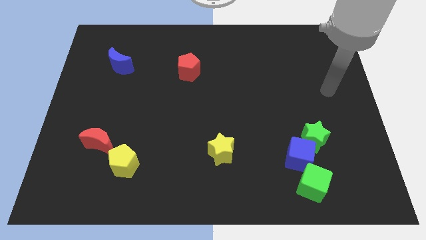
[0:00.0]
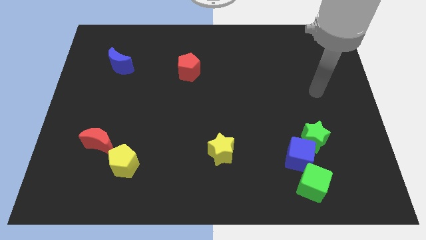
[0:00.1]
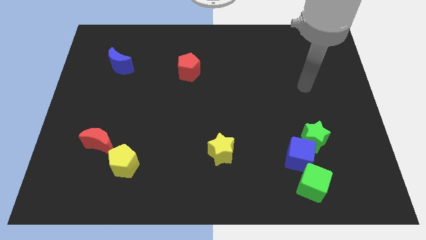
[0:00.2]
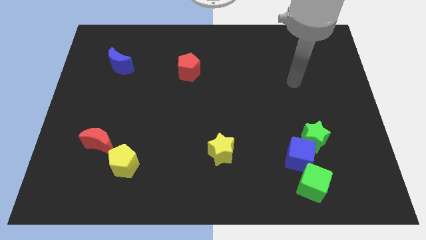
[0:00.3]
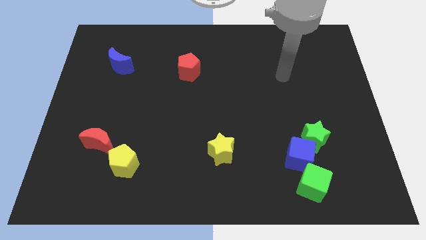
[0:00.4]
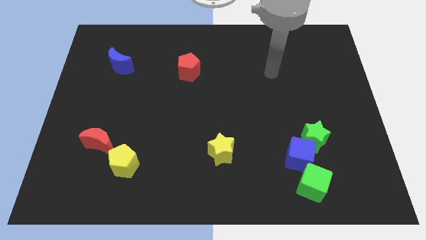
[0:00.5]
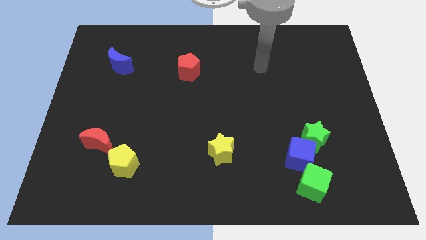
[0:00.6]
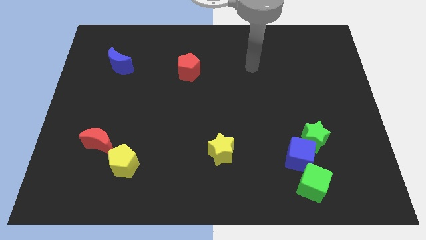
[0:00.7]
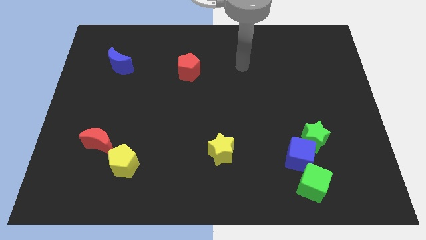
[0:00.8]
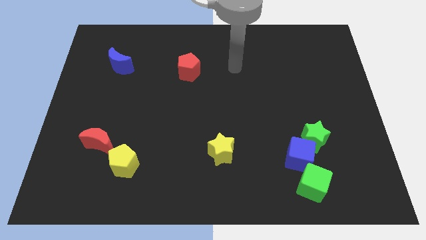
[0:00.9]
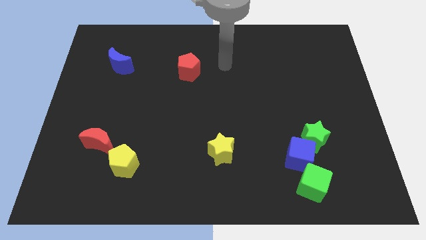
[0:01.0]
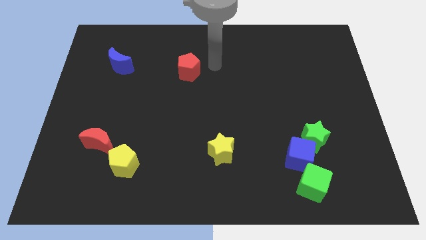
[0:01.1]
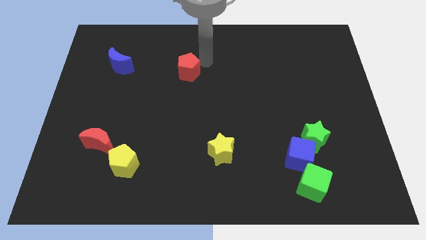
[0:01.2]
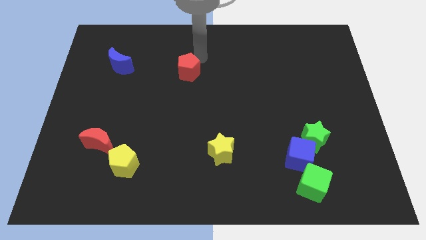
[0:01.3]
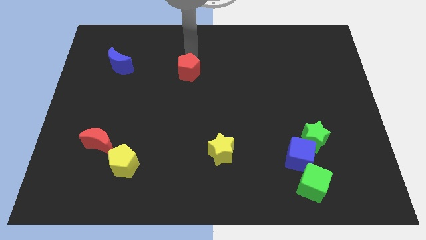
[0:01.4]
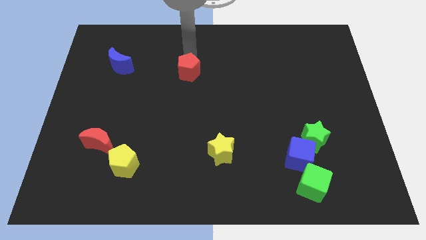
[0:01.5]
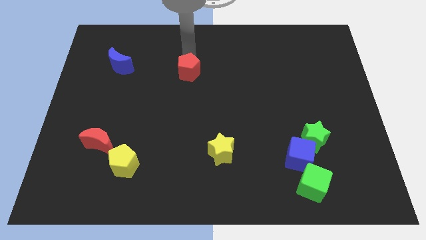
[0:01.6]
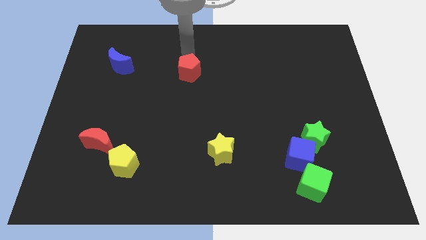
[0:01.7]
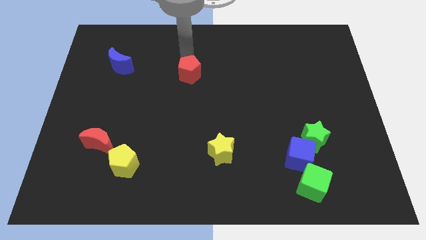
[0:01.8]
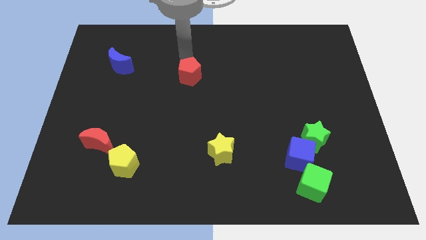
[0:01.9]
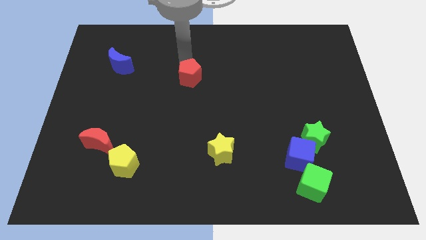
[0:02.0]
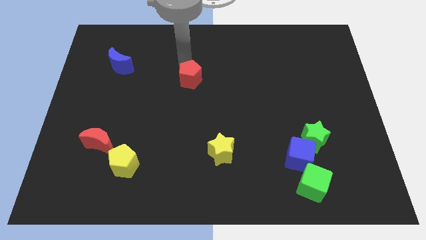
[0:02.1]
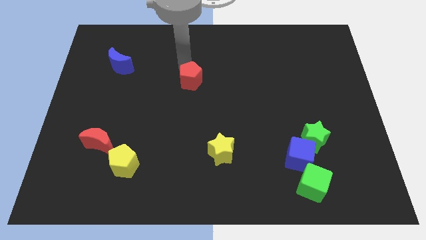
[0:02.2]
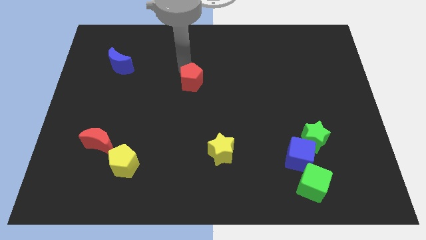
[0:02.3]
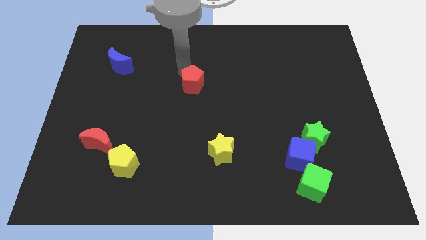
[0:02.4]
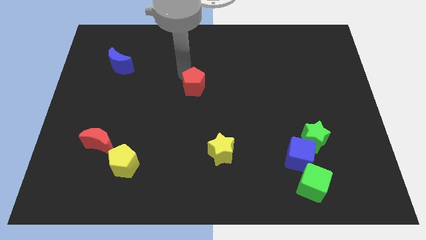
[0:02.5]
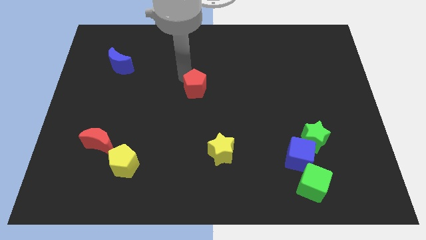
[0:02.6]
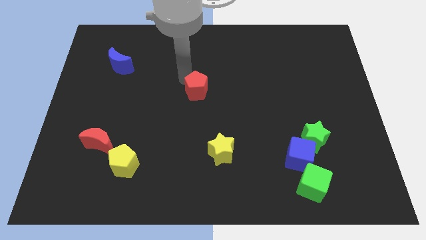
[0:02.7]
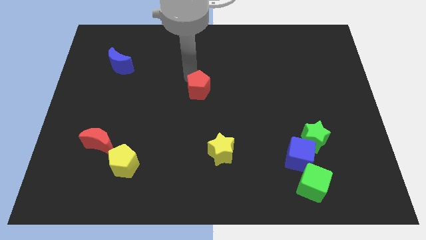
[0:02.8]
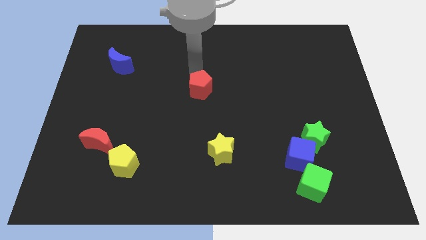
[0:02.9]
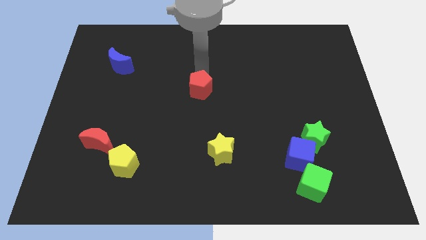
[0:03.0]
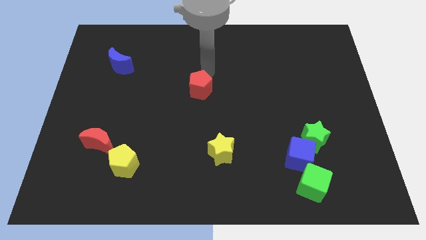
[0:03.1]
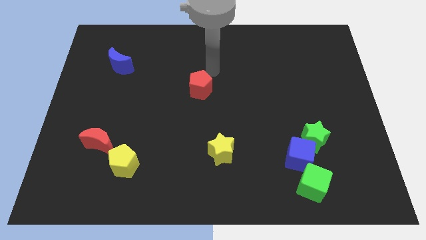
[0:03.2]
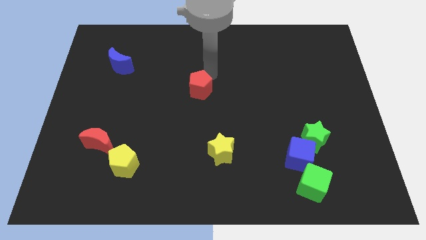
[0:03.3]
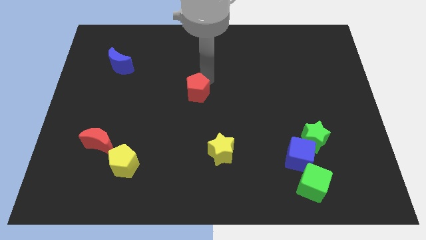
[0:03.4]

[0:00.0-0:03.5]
move the red pentagon a little downwards

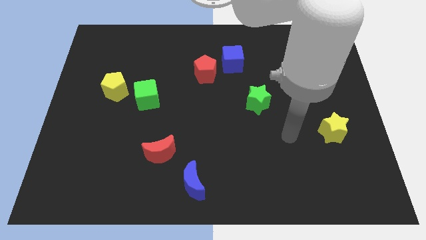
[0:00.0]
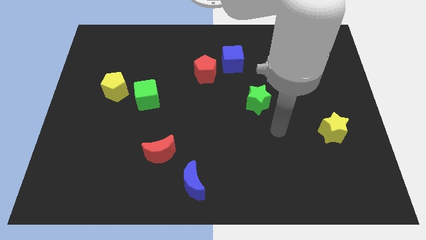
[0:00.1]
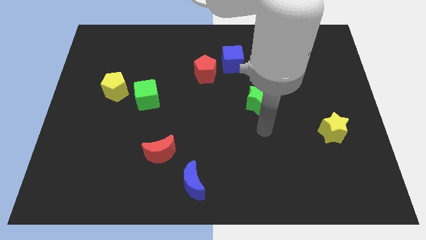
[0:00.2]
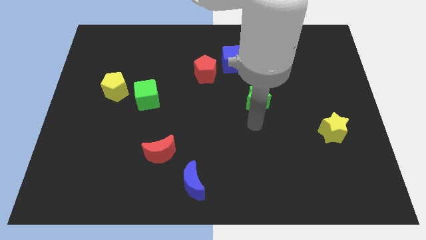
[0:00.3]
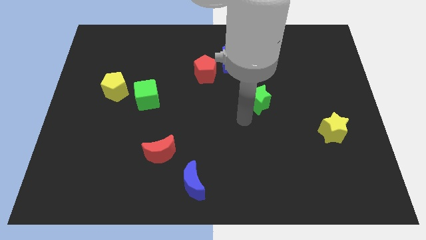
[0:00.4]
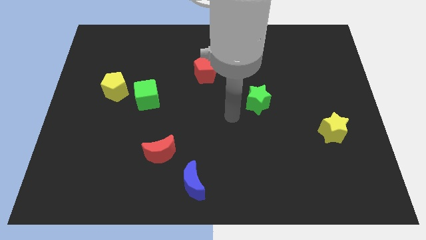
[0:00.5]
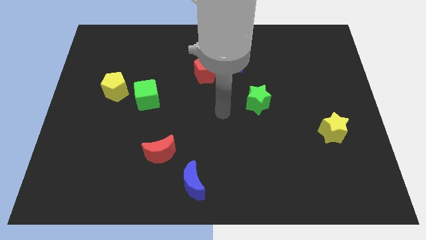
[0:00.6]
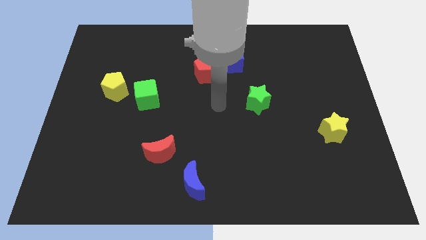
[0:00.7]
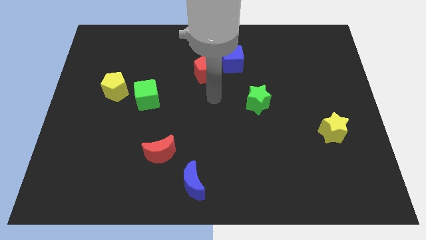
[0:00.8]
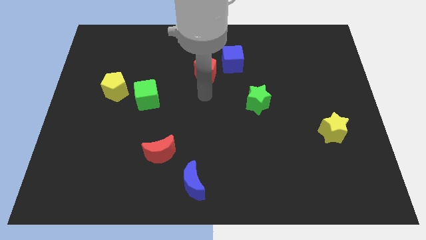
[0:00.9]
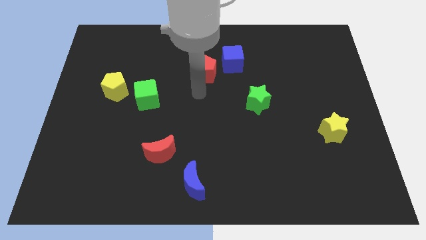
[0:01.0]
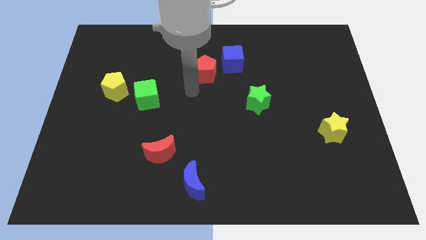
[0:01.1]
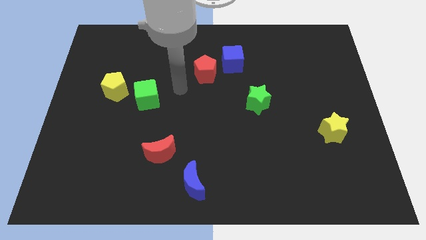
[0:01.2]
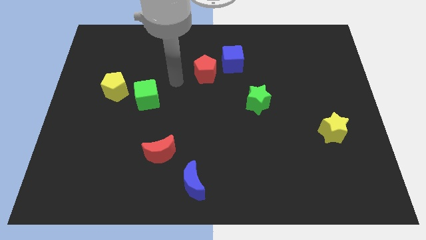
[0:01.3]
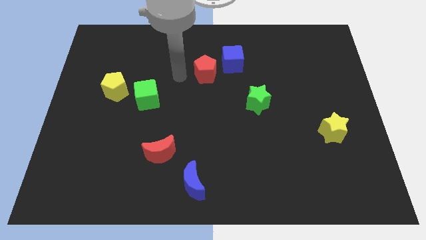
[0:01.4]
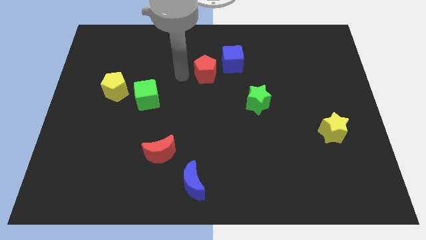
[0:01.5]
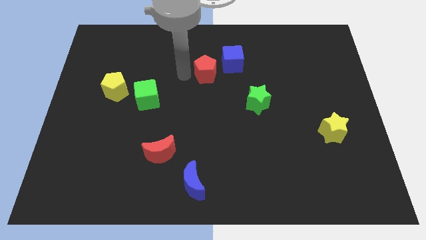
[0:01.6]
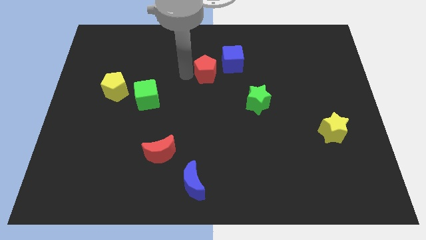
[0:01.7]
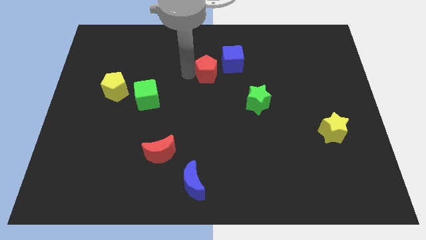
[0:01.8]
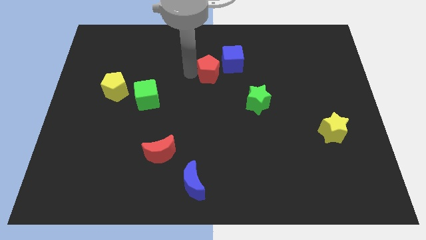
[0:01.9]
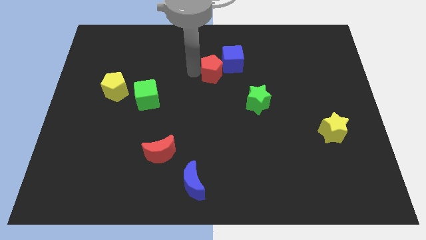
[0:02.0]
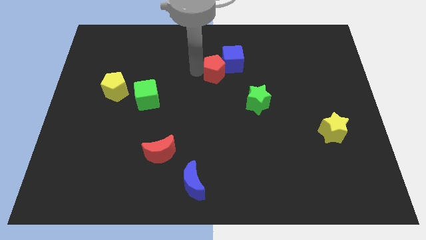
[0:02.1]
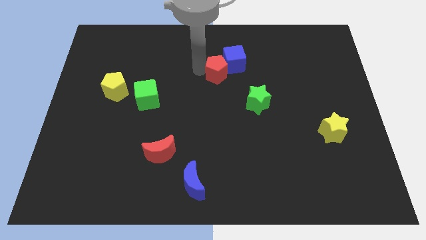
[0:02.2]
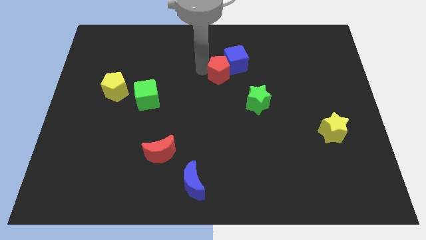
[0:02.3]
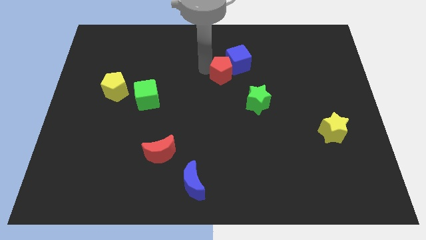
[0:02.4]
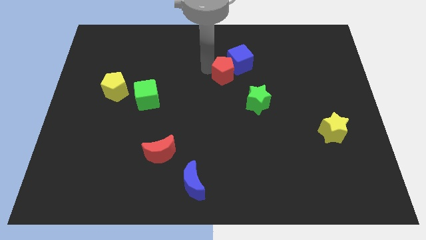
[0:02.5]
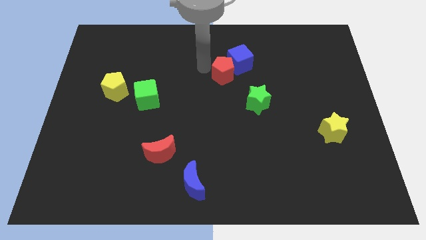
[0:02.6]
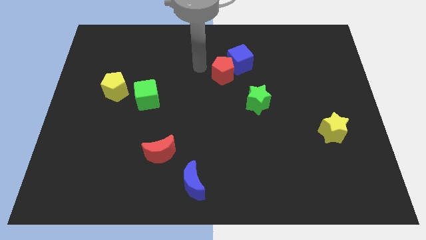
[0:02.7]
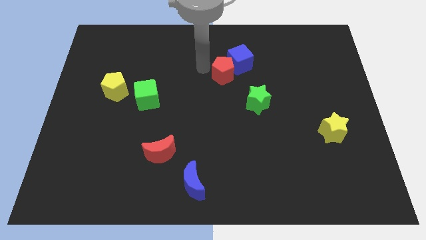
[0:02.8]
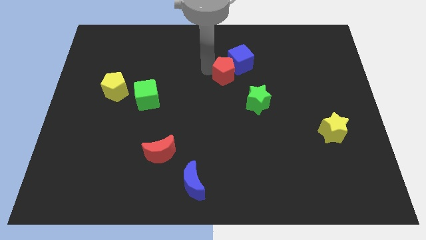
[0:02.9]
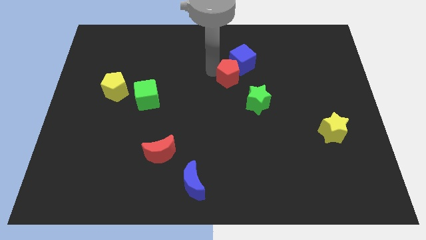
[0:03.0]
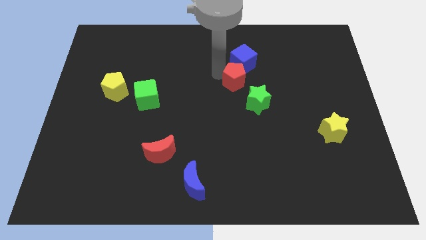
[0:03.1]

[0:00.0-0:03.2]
slightly move the red pentagon to the right

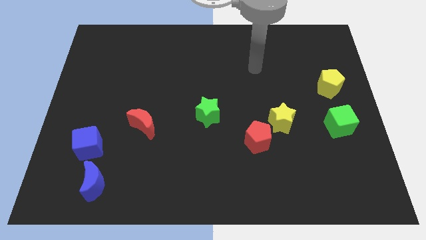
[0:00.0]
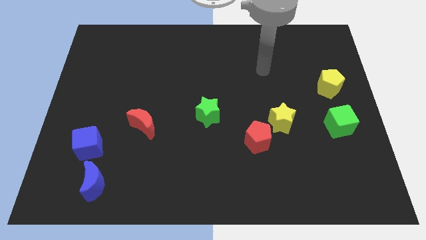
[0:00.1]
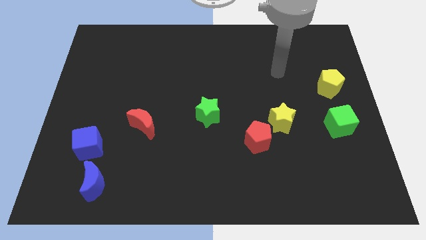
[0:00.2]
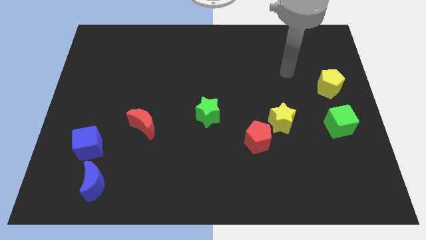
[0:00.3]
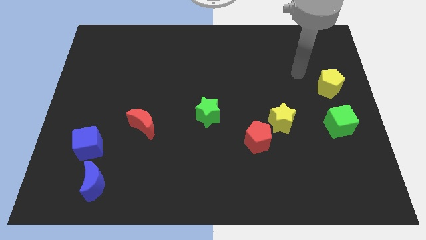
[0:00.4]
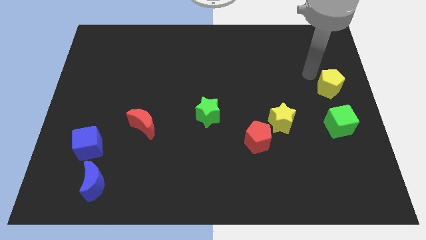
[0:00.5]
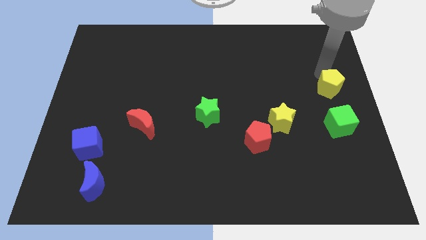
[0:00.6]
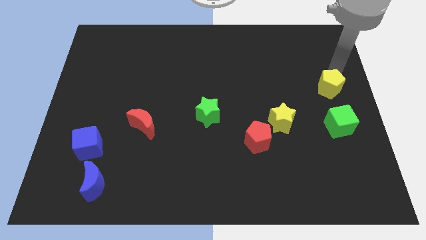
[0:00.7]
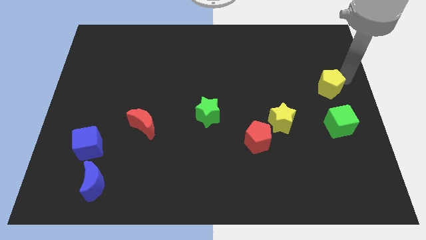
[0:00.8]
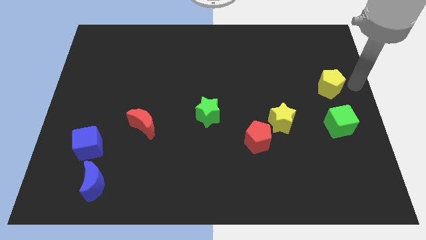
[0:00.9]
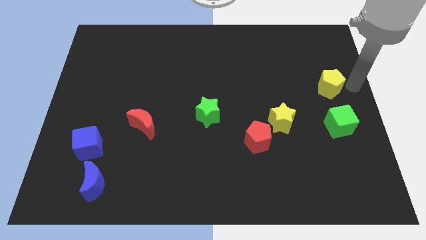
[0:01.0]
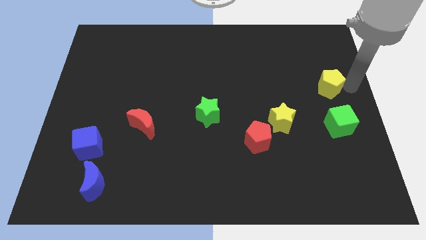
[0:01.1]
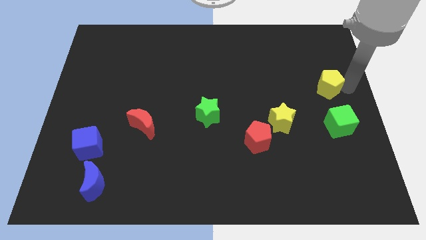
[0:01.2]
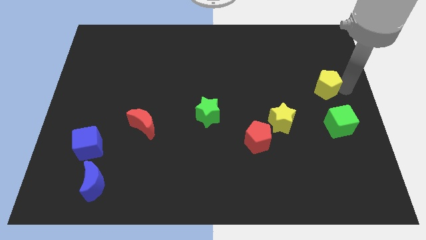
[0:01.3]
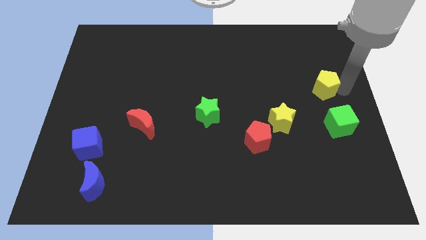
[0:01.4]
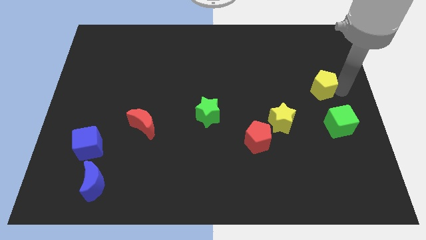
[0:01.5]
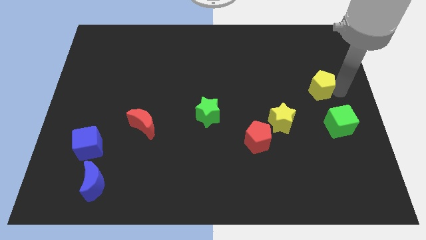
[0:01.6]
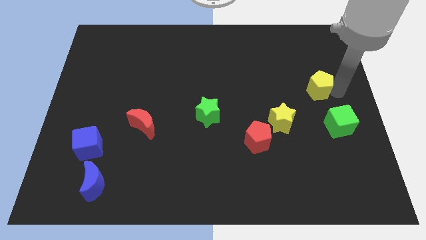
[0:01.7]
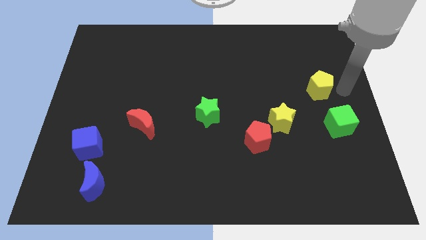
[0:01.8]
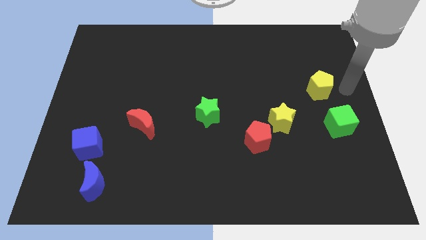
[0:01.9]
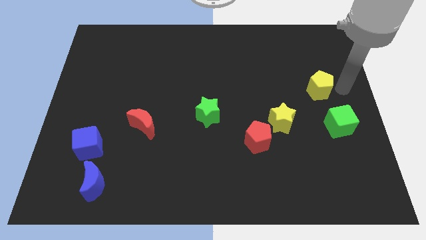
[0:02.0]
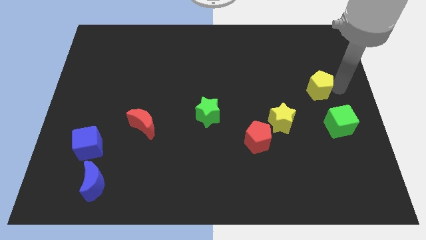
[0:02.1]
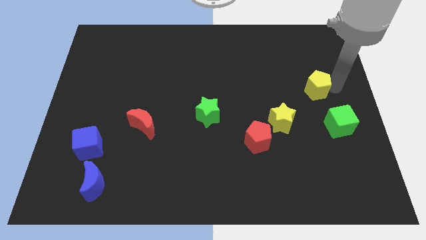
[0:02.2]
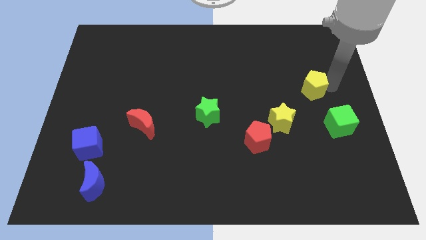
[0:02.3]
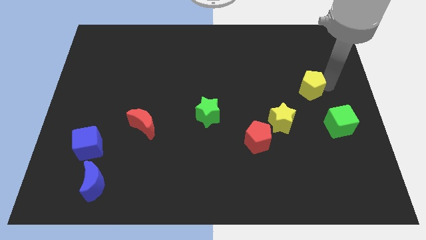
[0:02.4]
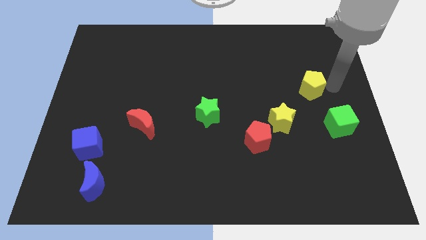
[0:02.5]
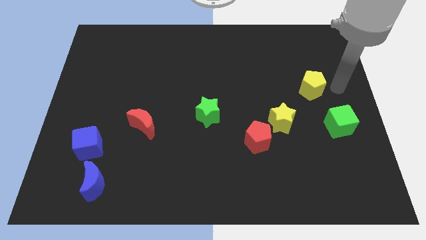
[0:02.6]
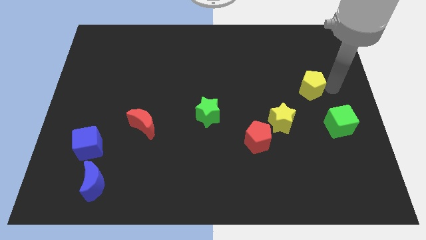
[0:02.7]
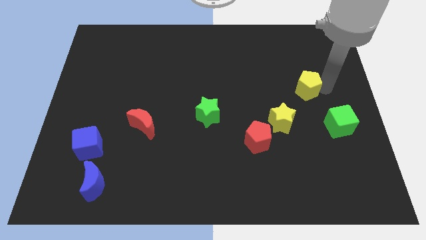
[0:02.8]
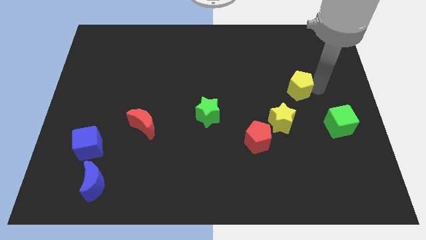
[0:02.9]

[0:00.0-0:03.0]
push the yellow pentagon to the left somewhat
